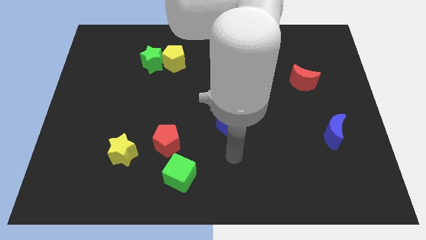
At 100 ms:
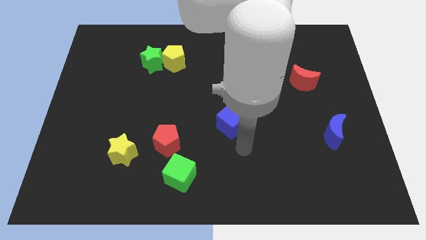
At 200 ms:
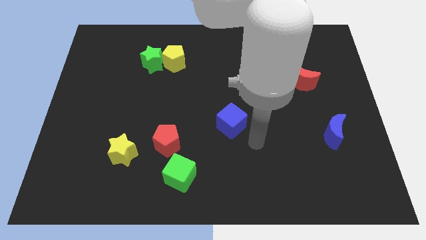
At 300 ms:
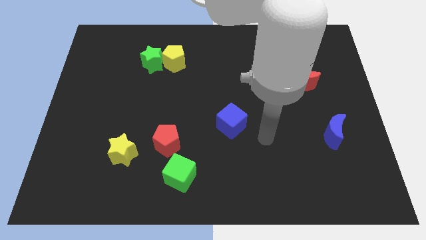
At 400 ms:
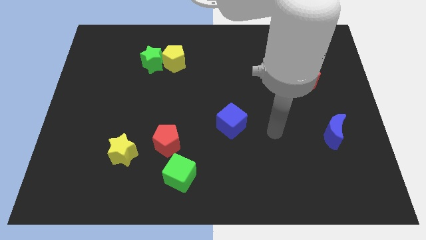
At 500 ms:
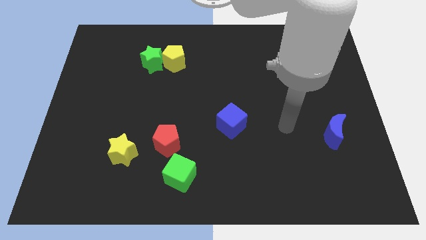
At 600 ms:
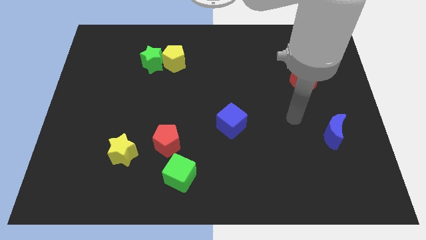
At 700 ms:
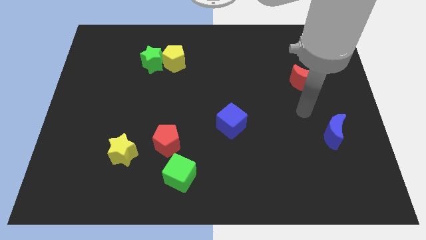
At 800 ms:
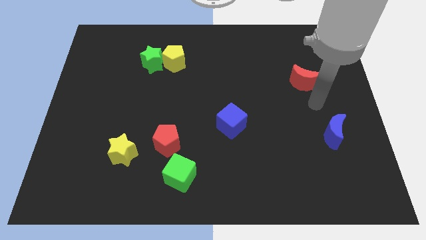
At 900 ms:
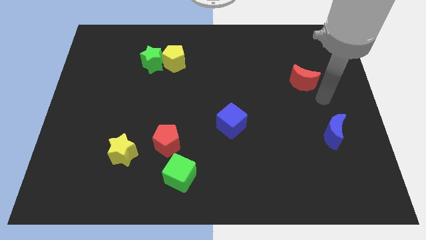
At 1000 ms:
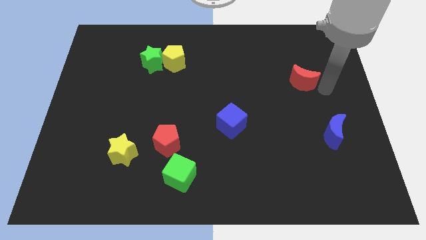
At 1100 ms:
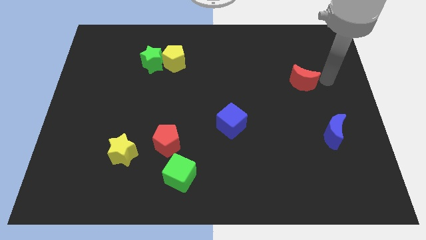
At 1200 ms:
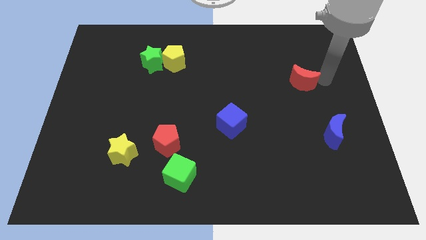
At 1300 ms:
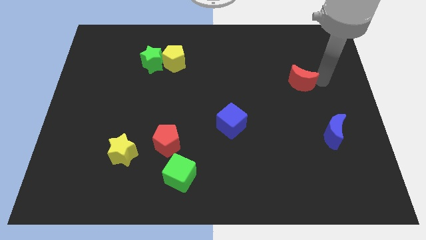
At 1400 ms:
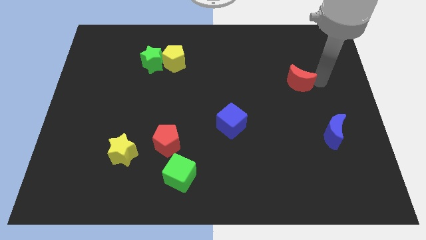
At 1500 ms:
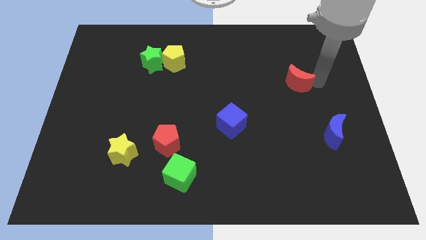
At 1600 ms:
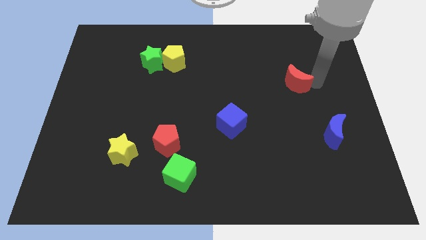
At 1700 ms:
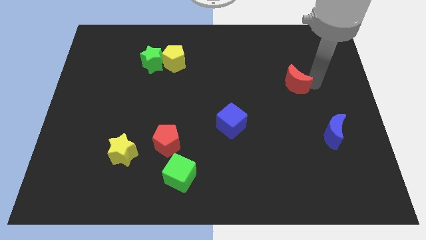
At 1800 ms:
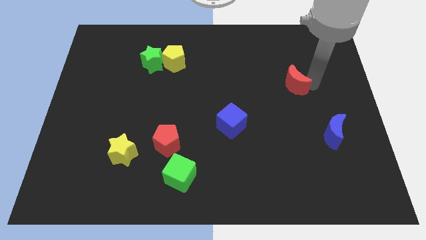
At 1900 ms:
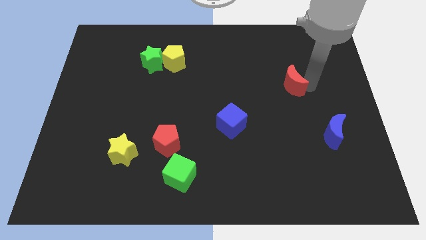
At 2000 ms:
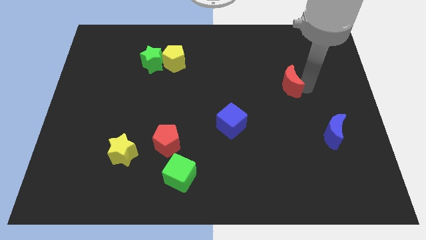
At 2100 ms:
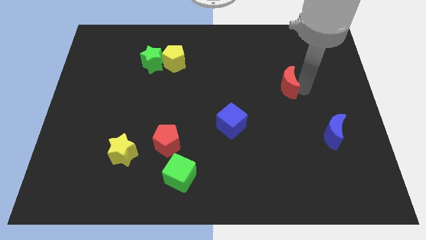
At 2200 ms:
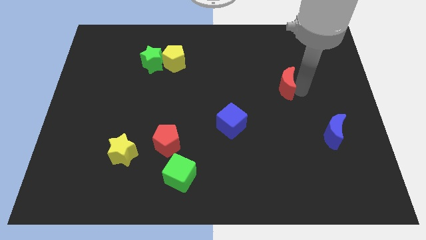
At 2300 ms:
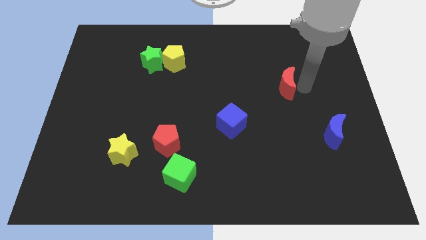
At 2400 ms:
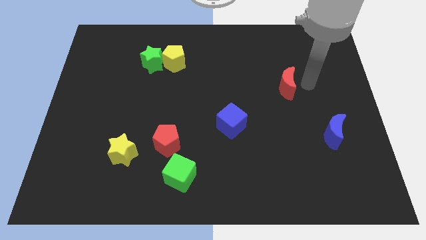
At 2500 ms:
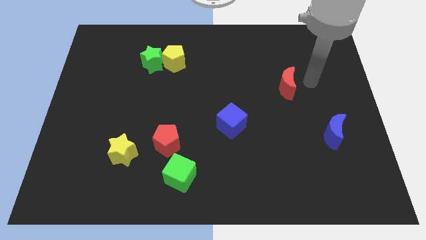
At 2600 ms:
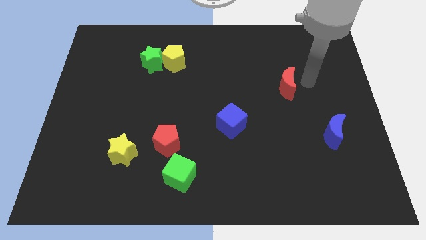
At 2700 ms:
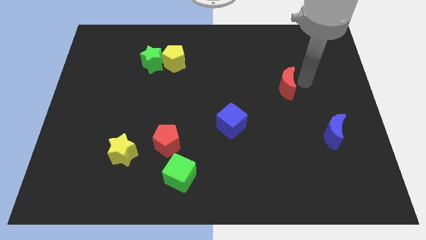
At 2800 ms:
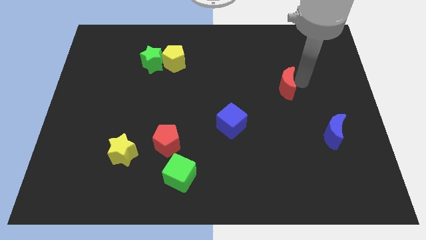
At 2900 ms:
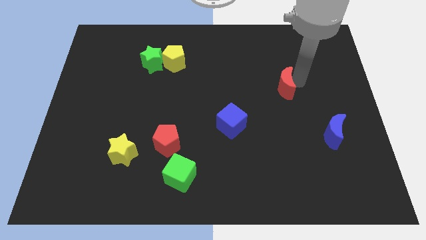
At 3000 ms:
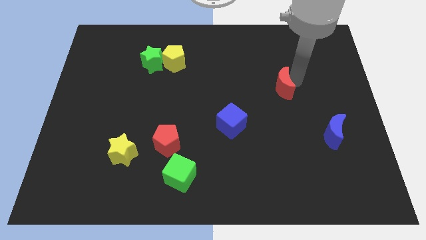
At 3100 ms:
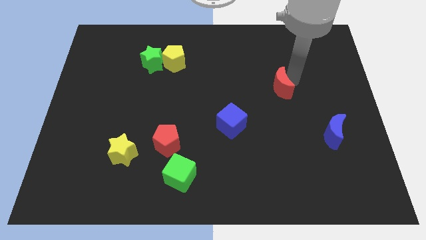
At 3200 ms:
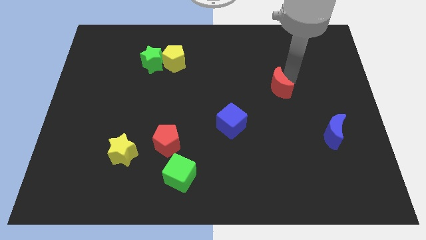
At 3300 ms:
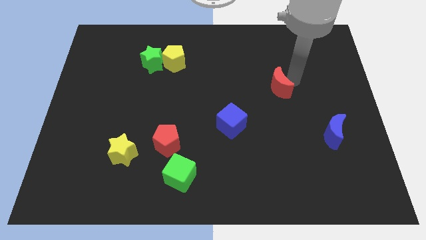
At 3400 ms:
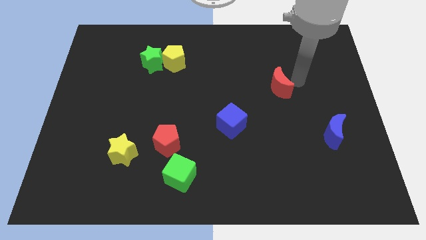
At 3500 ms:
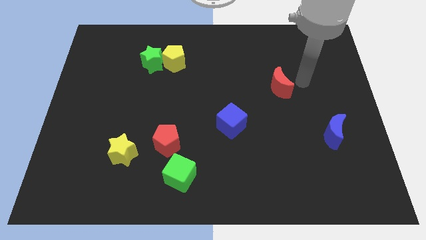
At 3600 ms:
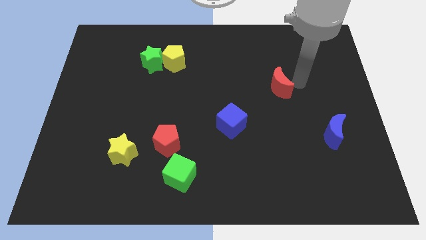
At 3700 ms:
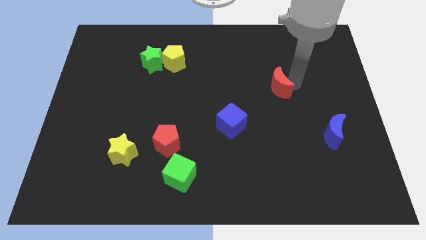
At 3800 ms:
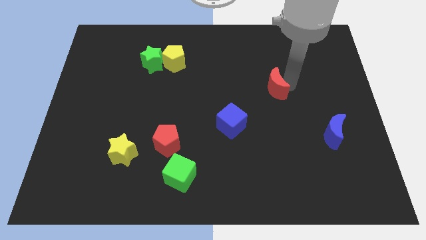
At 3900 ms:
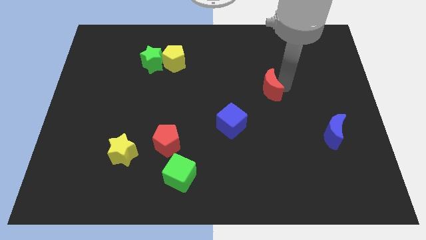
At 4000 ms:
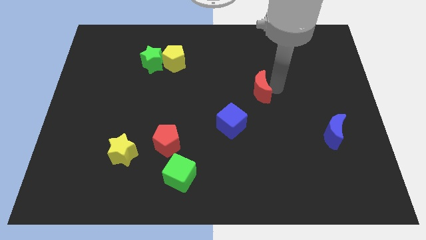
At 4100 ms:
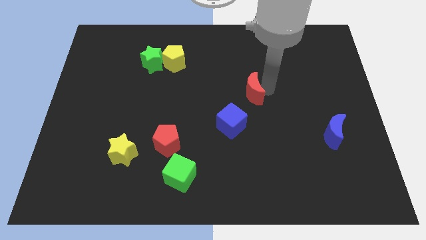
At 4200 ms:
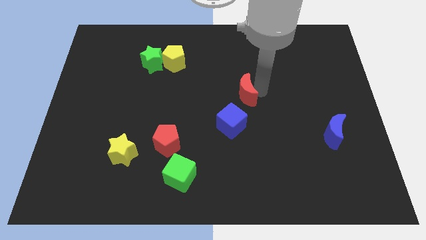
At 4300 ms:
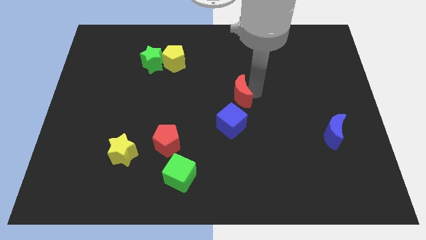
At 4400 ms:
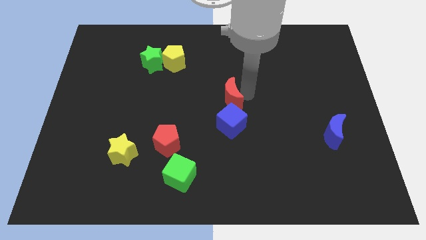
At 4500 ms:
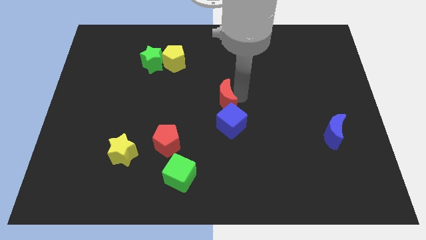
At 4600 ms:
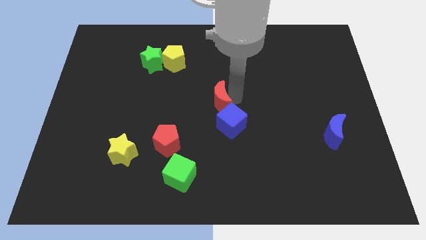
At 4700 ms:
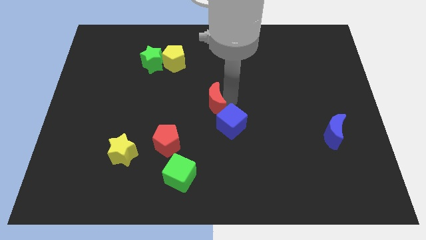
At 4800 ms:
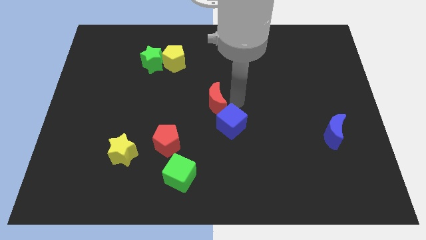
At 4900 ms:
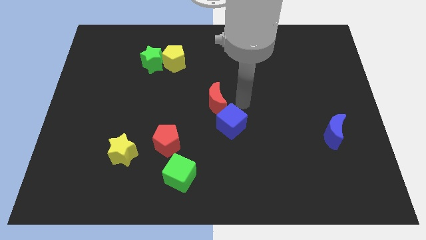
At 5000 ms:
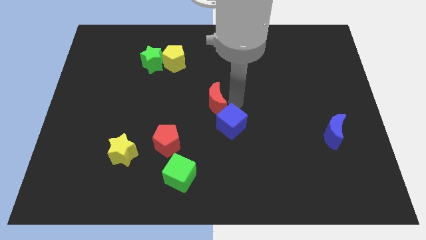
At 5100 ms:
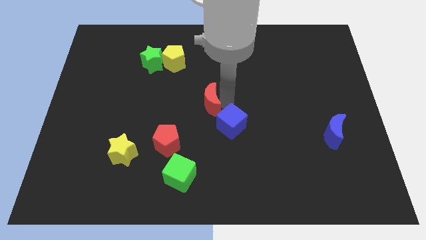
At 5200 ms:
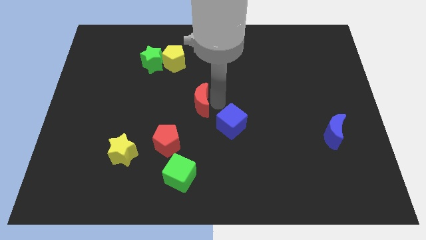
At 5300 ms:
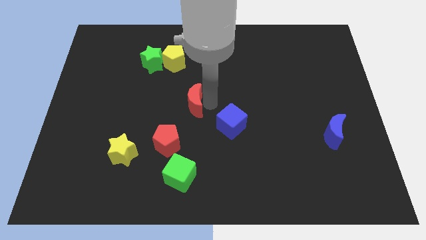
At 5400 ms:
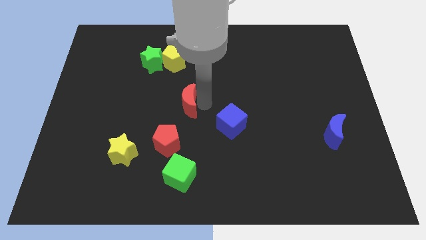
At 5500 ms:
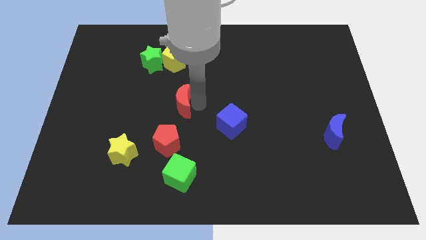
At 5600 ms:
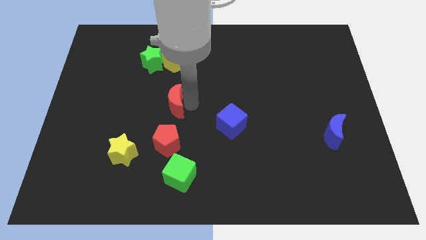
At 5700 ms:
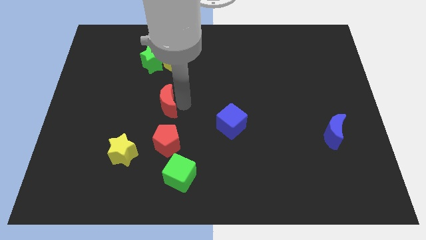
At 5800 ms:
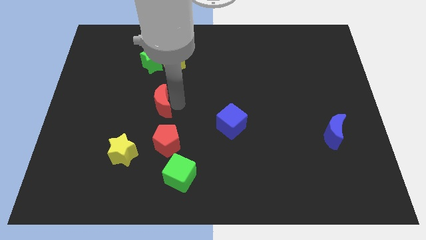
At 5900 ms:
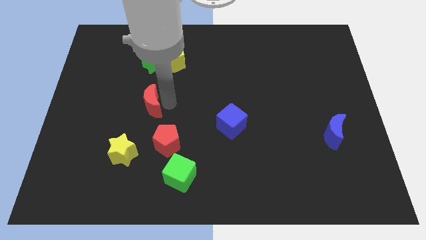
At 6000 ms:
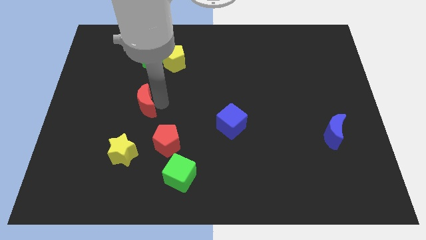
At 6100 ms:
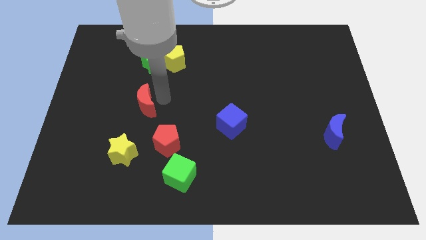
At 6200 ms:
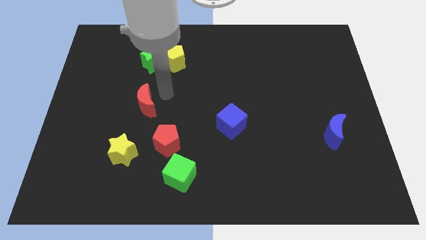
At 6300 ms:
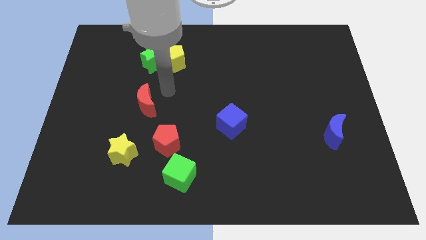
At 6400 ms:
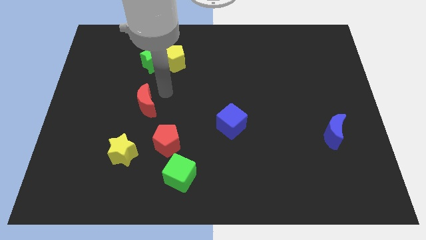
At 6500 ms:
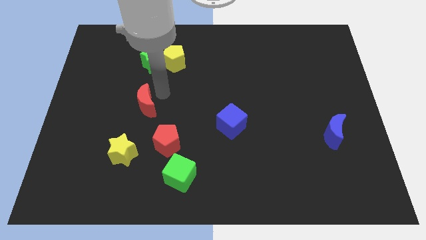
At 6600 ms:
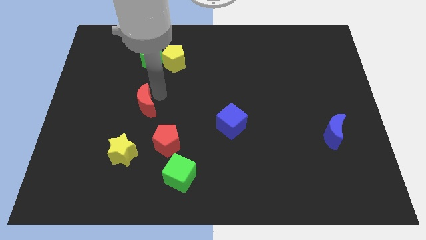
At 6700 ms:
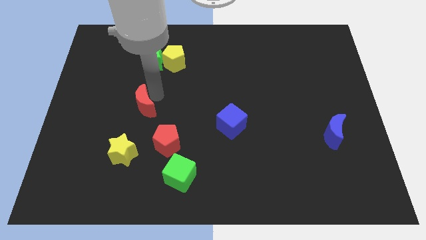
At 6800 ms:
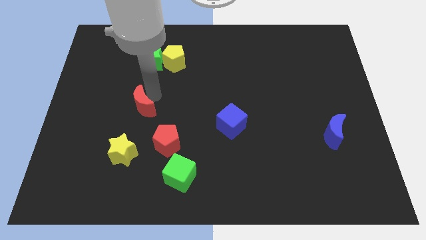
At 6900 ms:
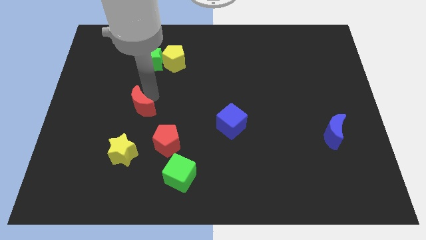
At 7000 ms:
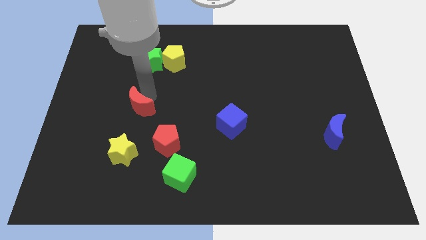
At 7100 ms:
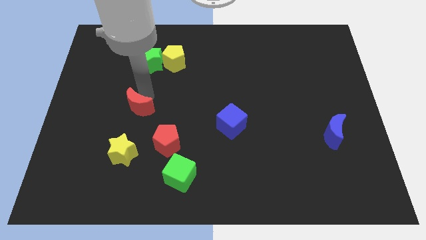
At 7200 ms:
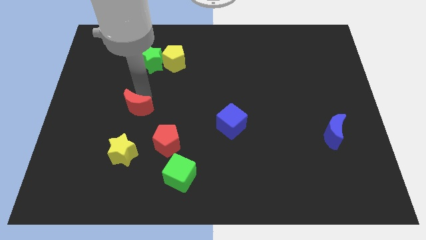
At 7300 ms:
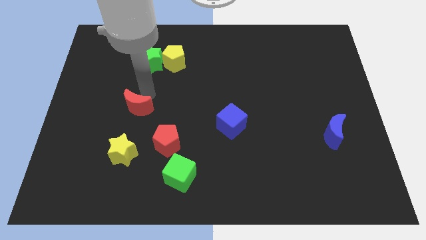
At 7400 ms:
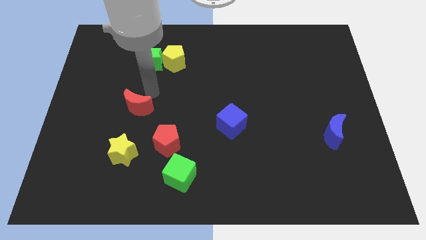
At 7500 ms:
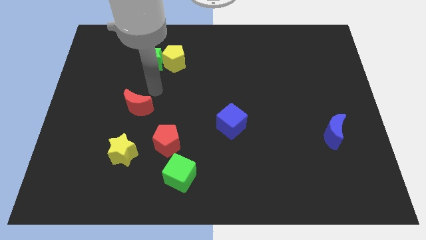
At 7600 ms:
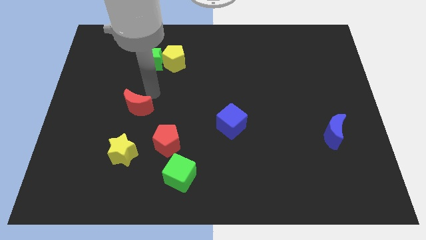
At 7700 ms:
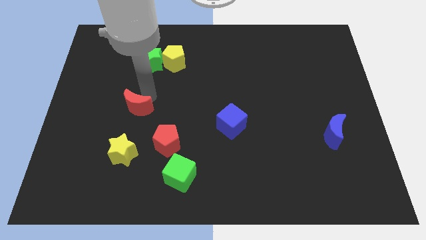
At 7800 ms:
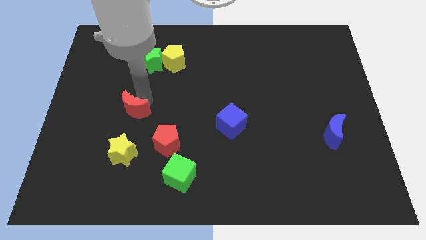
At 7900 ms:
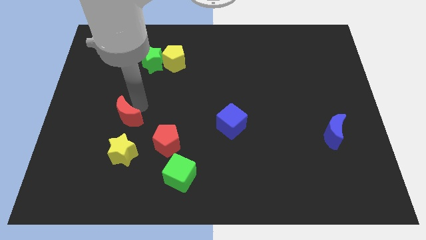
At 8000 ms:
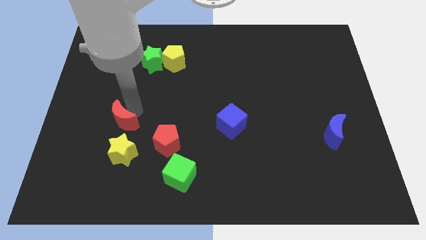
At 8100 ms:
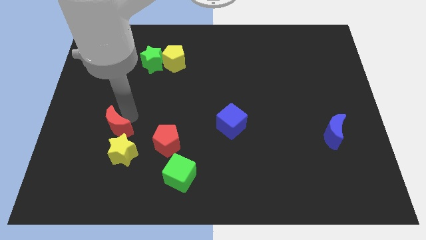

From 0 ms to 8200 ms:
put the red moon to the top left side of the yellow star
